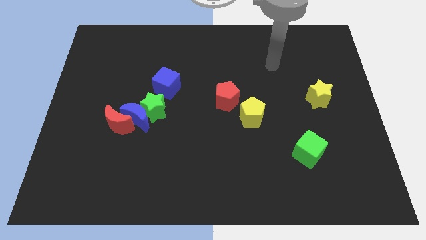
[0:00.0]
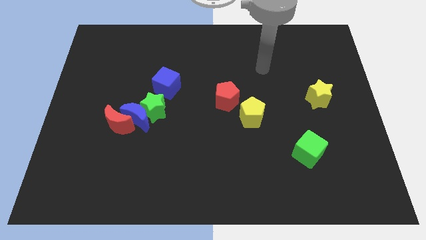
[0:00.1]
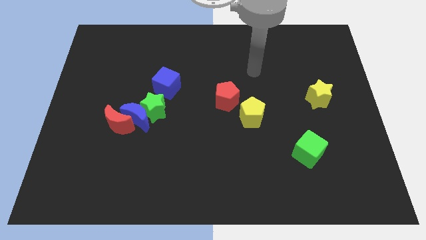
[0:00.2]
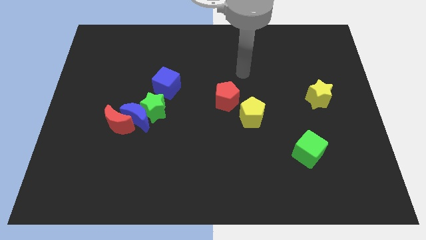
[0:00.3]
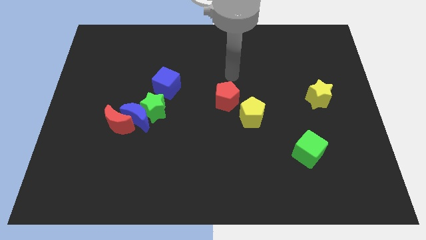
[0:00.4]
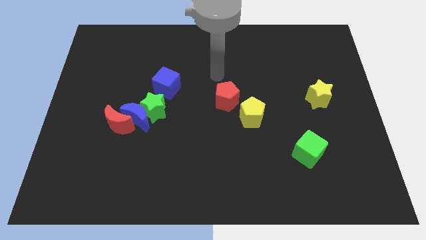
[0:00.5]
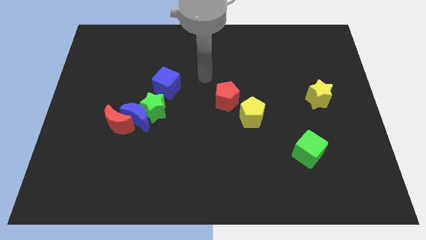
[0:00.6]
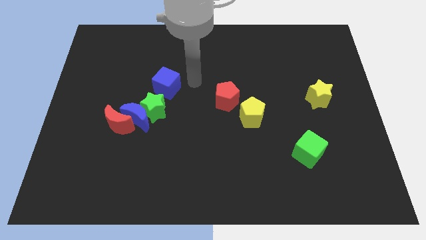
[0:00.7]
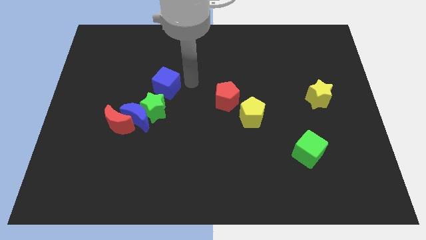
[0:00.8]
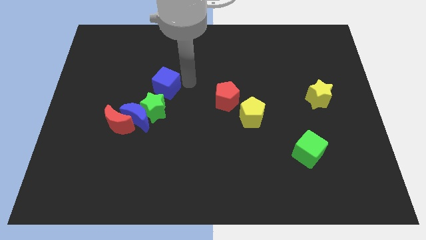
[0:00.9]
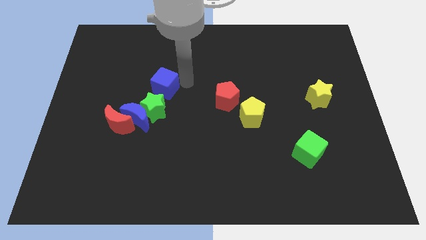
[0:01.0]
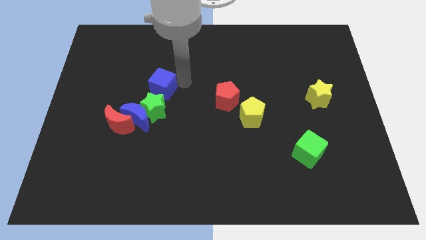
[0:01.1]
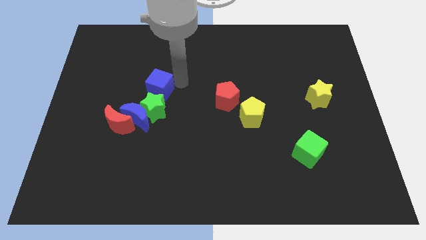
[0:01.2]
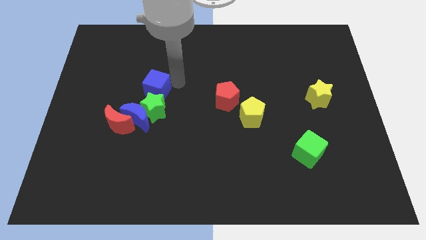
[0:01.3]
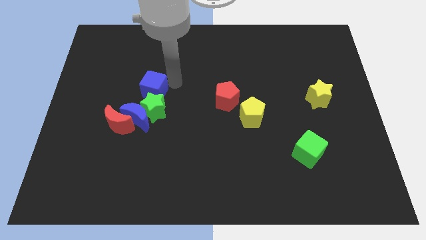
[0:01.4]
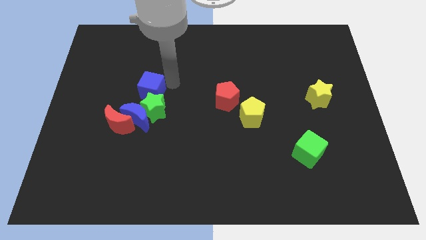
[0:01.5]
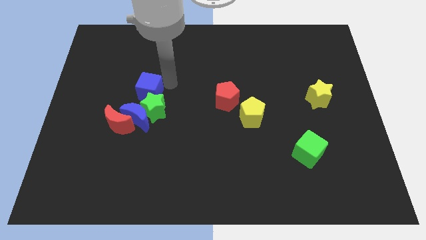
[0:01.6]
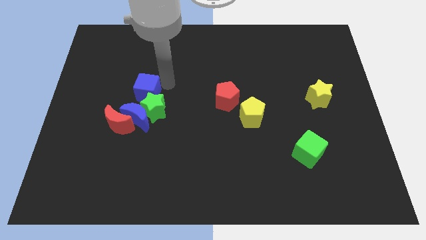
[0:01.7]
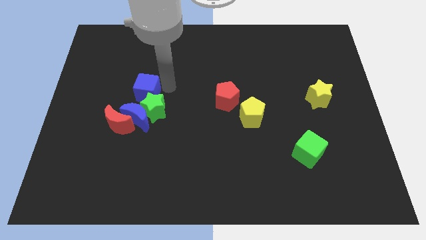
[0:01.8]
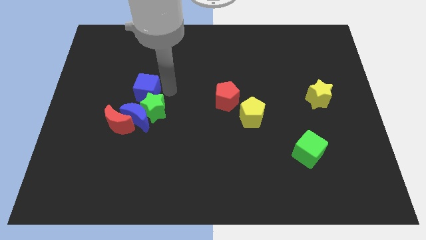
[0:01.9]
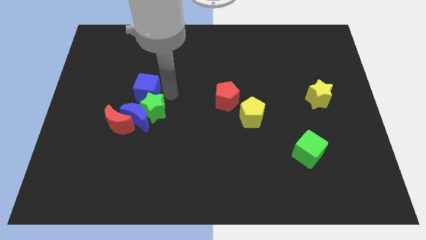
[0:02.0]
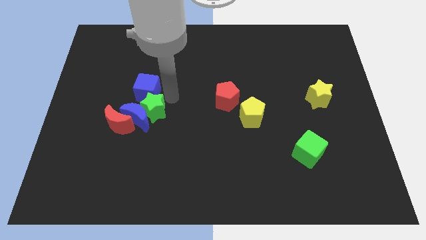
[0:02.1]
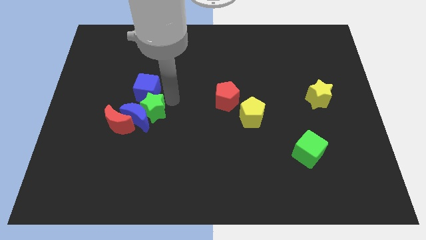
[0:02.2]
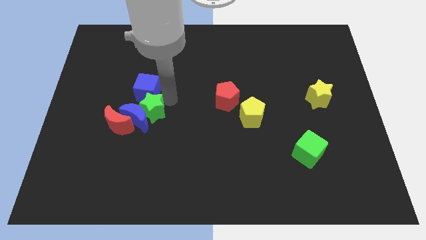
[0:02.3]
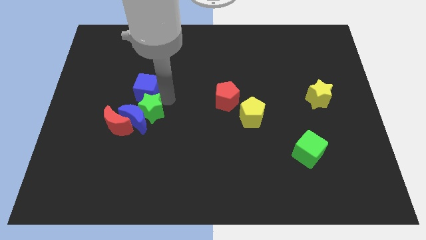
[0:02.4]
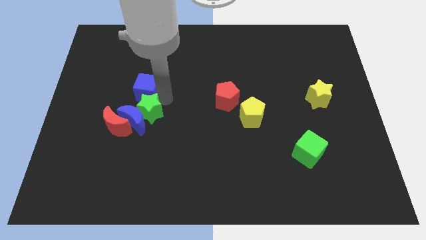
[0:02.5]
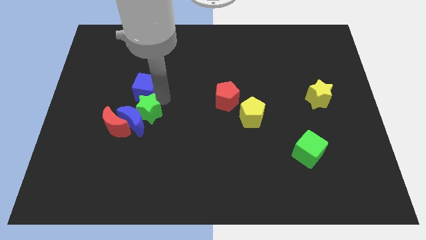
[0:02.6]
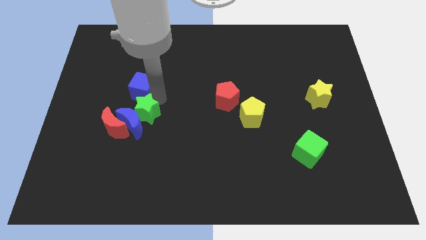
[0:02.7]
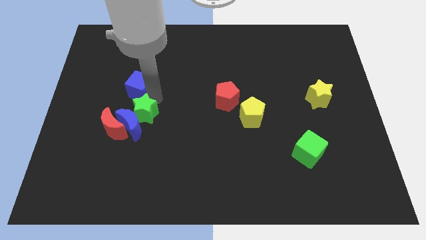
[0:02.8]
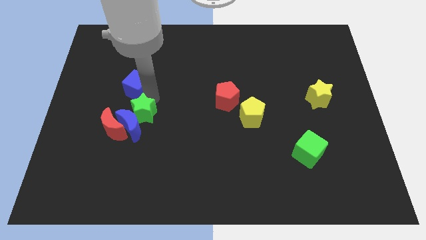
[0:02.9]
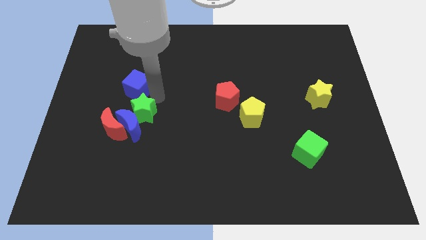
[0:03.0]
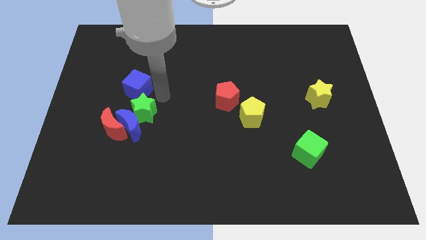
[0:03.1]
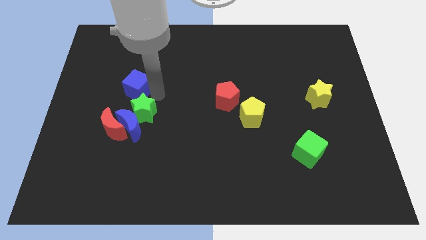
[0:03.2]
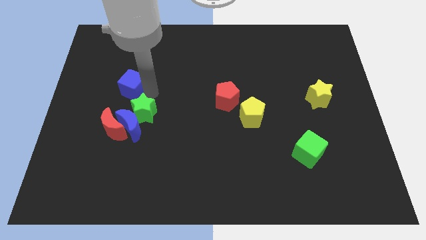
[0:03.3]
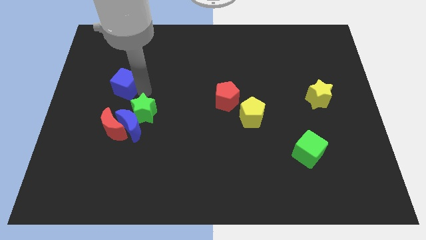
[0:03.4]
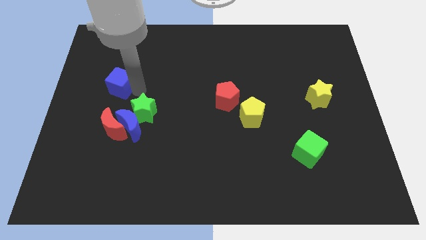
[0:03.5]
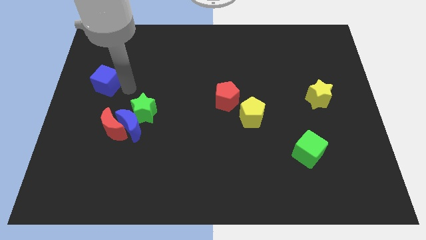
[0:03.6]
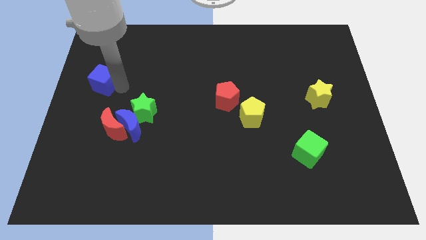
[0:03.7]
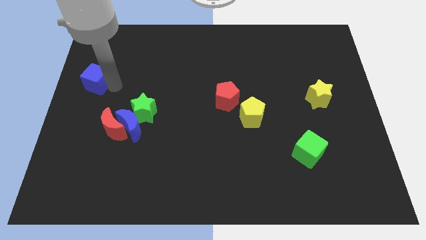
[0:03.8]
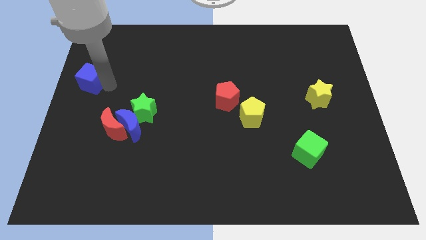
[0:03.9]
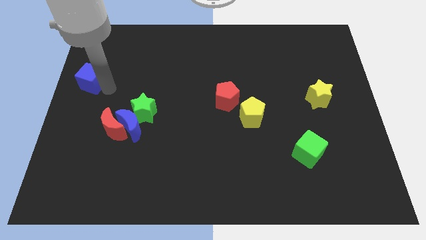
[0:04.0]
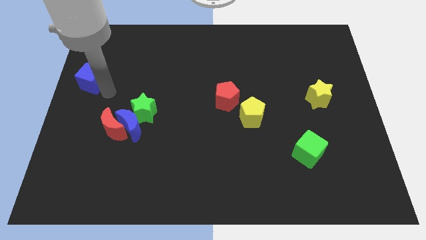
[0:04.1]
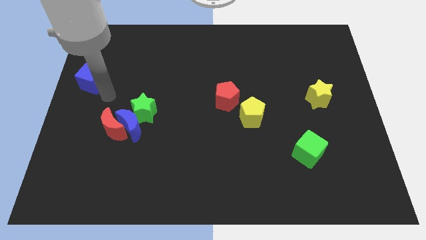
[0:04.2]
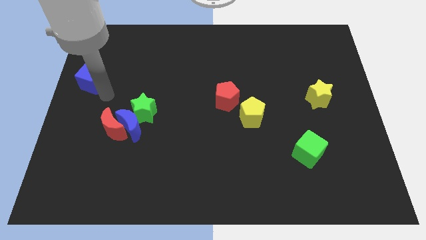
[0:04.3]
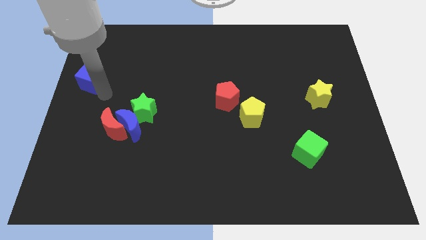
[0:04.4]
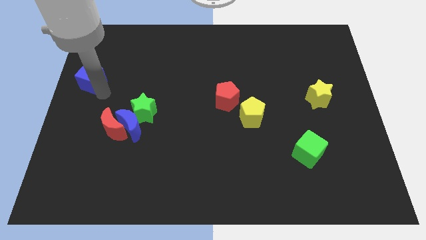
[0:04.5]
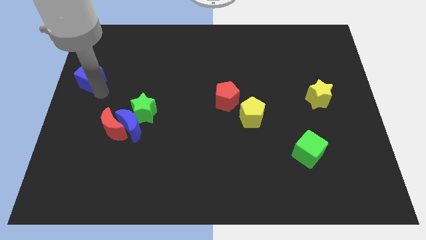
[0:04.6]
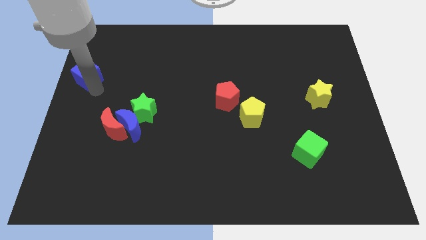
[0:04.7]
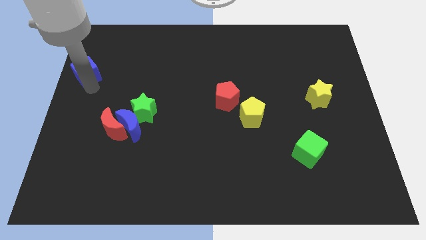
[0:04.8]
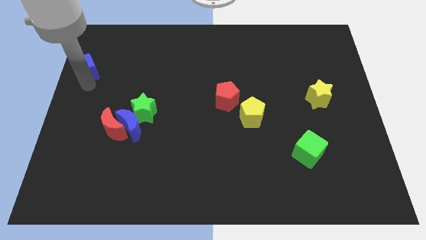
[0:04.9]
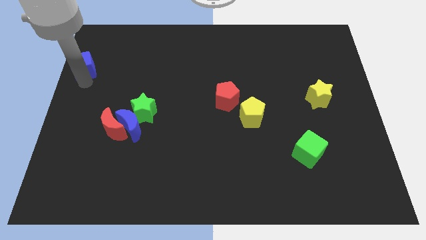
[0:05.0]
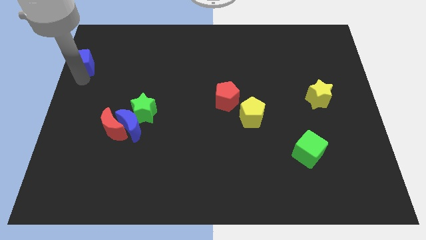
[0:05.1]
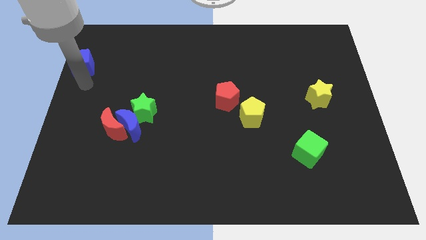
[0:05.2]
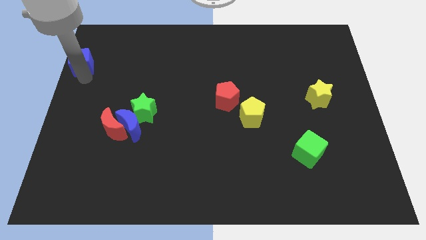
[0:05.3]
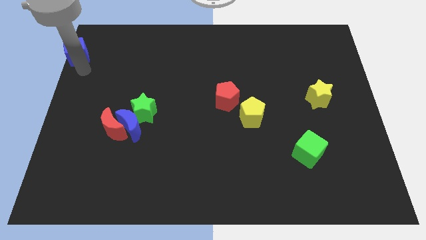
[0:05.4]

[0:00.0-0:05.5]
push the blue cube to the top left of the board

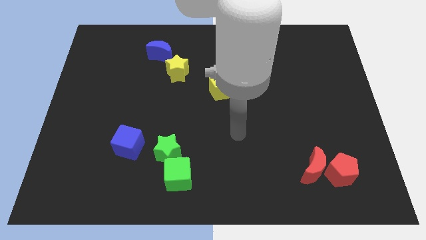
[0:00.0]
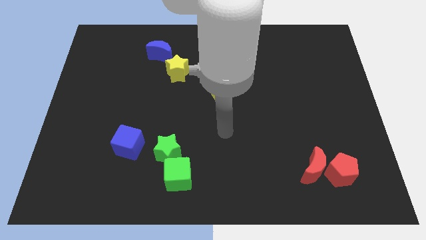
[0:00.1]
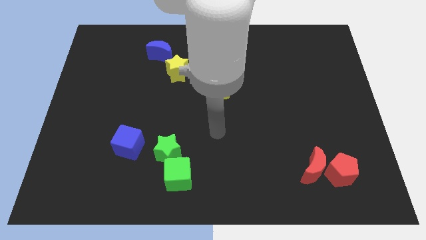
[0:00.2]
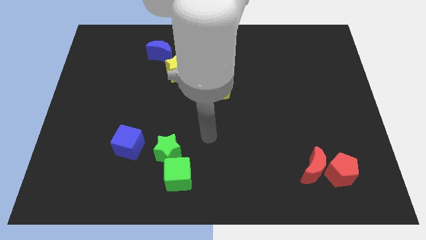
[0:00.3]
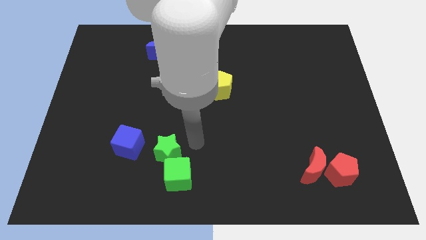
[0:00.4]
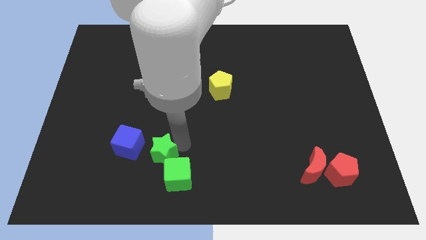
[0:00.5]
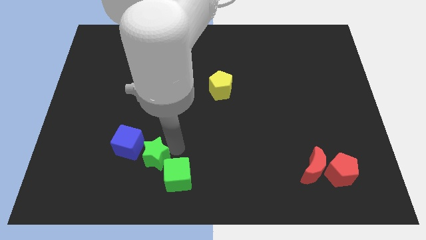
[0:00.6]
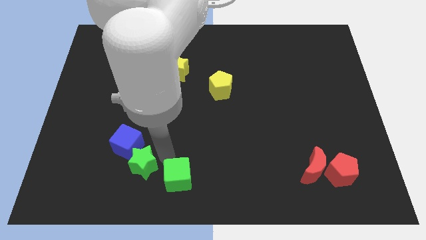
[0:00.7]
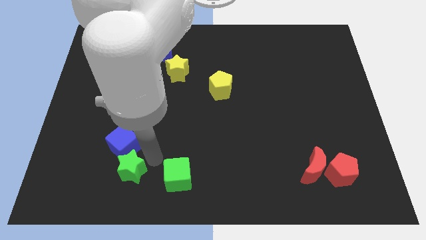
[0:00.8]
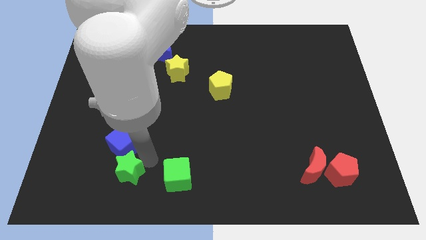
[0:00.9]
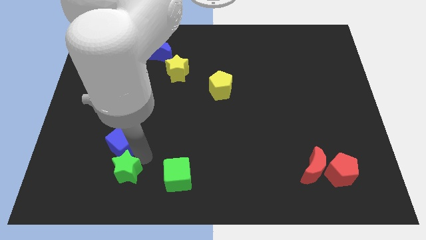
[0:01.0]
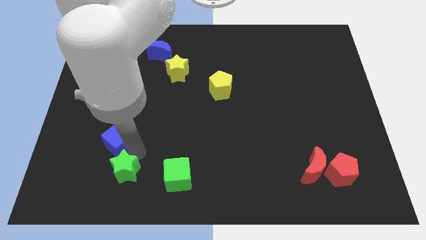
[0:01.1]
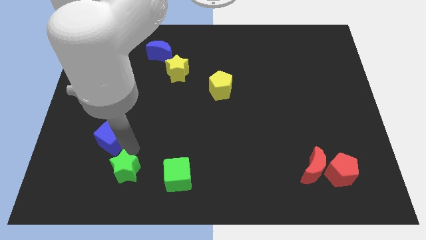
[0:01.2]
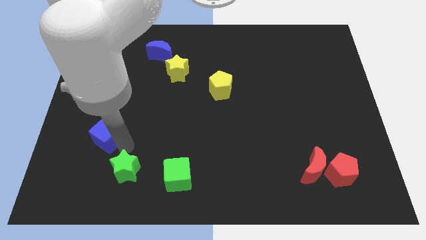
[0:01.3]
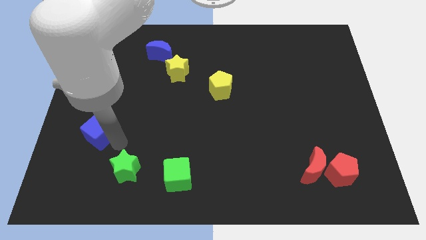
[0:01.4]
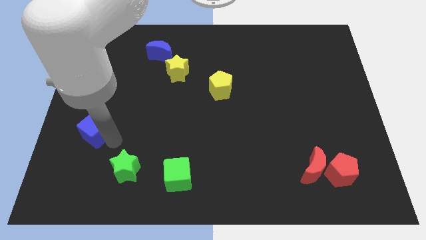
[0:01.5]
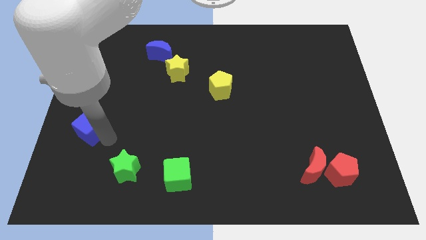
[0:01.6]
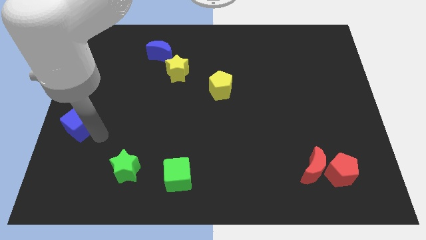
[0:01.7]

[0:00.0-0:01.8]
put the blue cube to the center left
